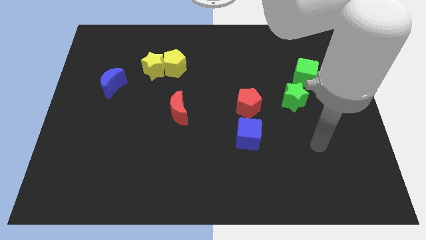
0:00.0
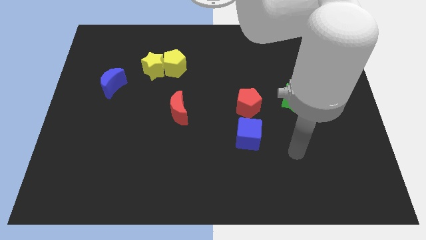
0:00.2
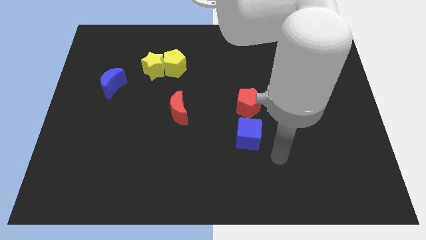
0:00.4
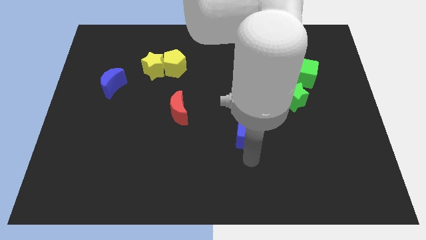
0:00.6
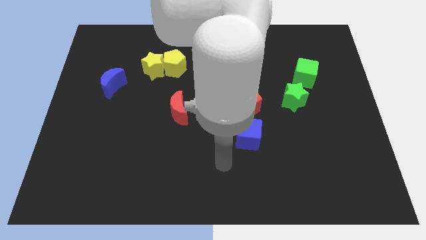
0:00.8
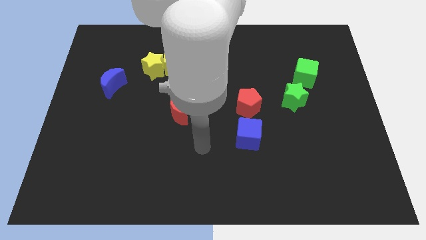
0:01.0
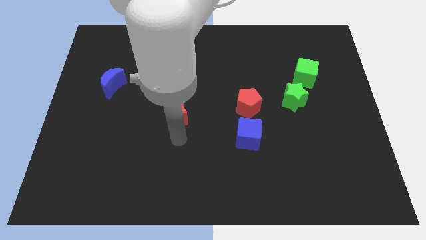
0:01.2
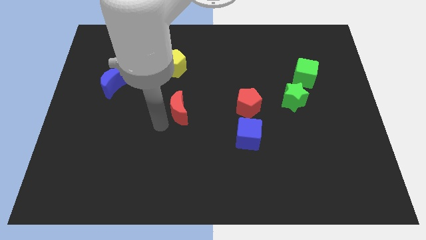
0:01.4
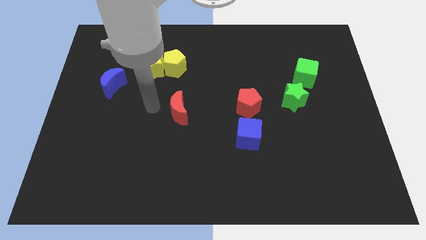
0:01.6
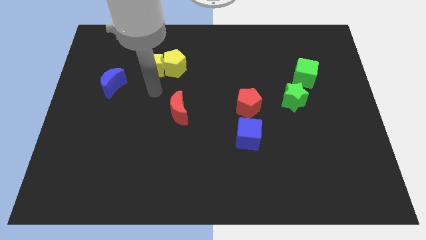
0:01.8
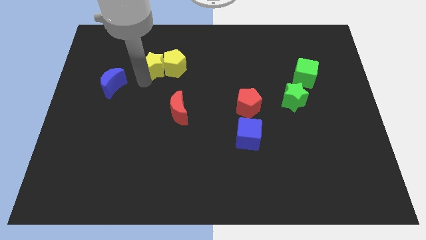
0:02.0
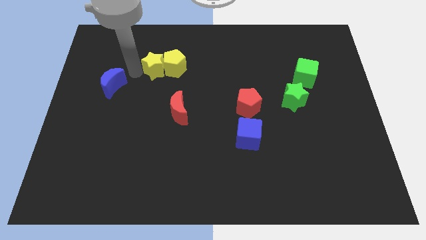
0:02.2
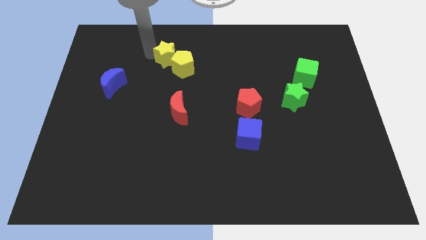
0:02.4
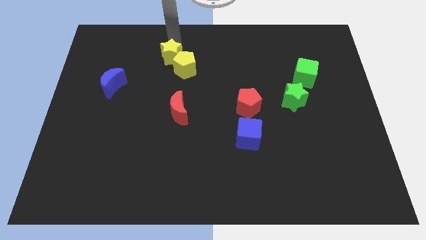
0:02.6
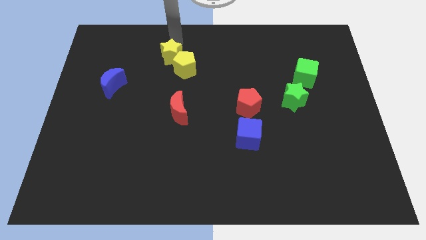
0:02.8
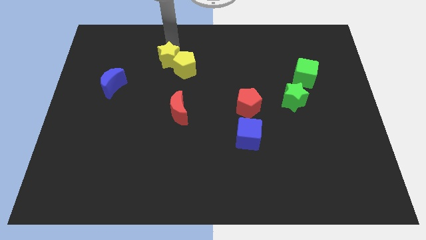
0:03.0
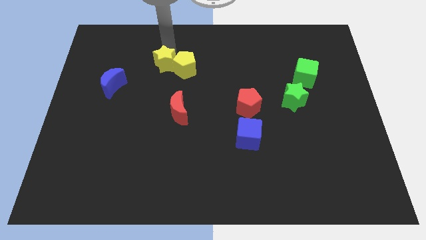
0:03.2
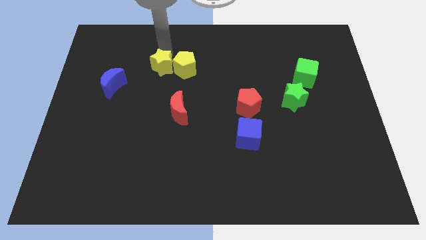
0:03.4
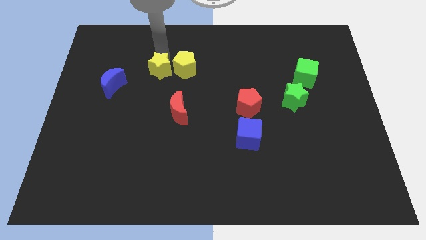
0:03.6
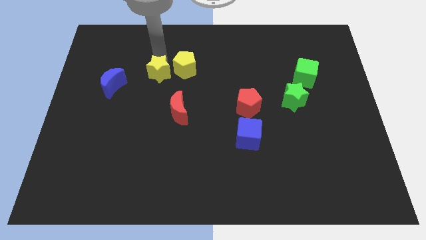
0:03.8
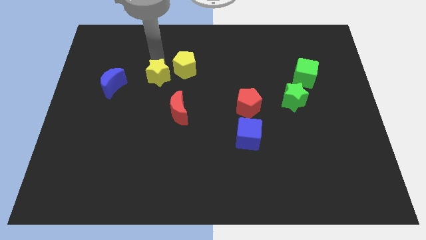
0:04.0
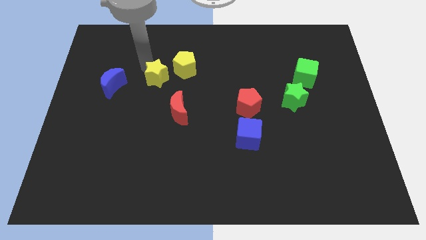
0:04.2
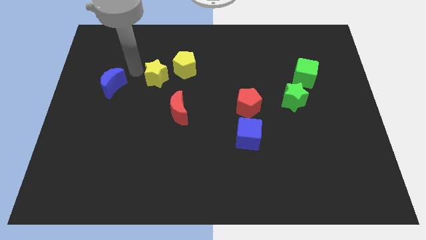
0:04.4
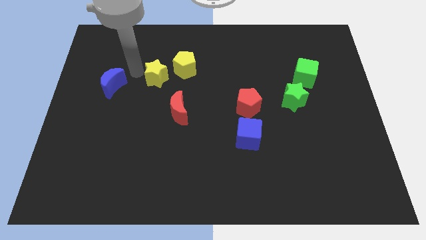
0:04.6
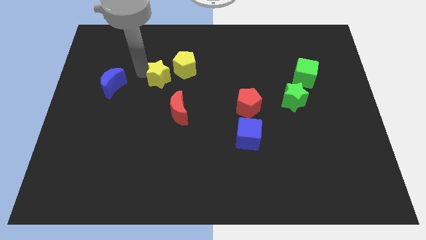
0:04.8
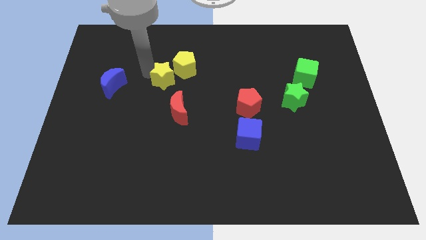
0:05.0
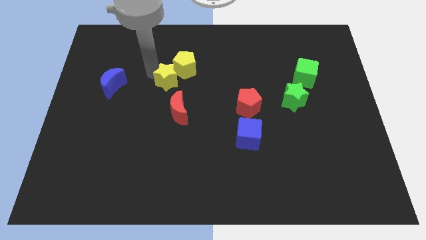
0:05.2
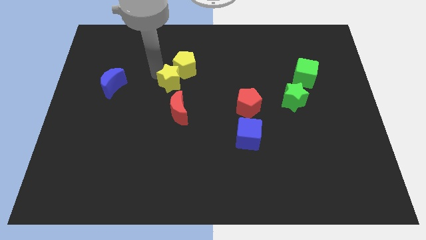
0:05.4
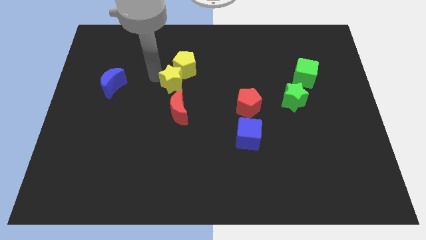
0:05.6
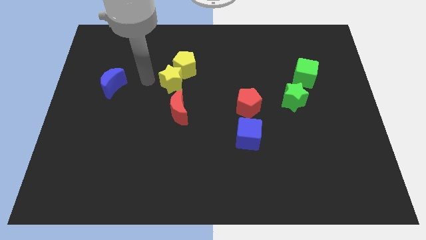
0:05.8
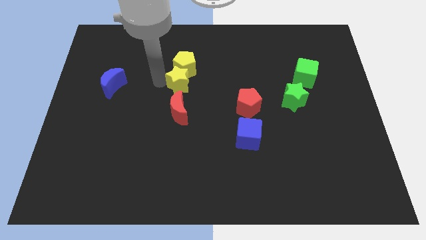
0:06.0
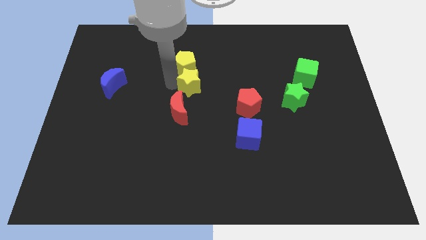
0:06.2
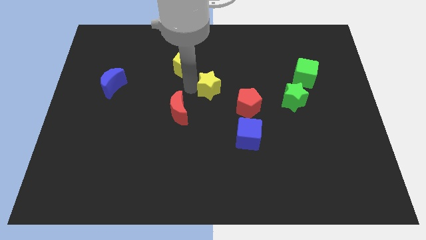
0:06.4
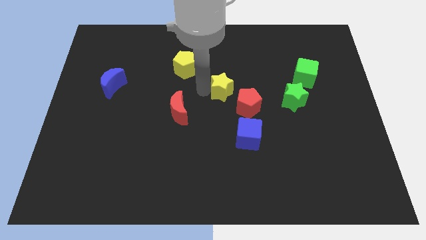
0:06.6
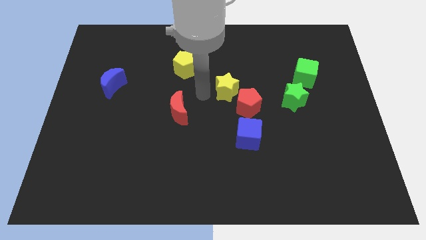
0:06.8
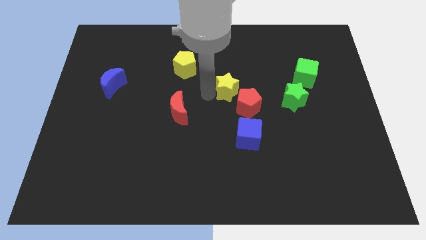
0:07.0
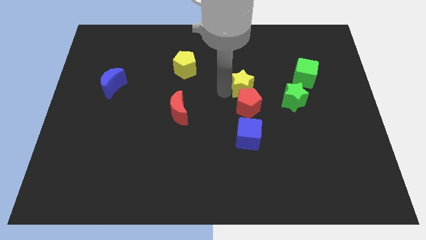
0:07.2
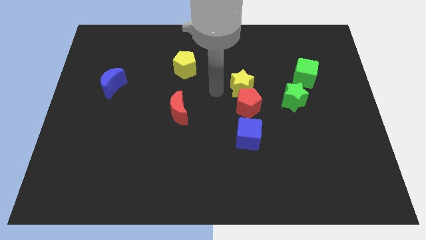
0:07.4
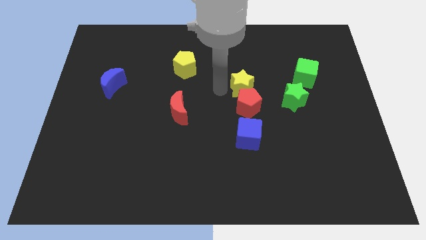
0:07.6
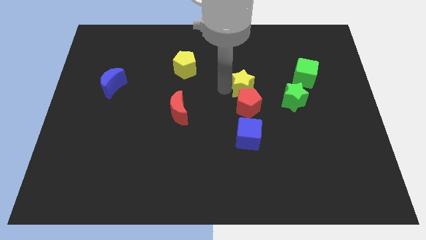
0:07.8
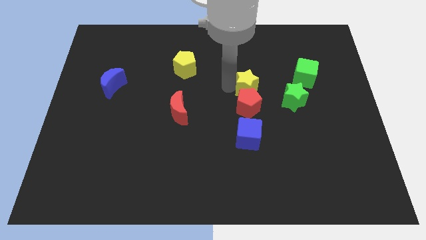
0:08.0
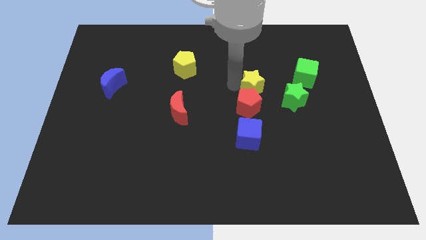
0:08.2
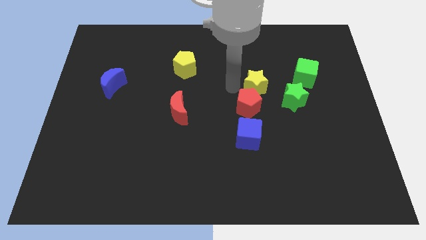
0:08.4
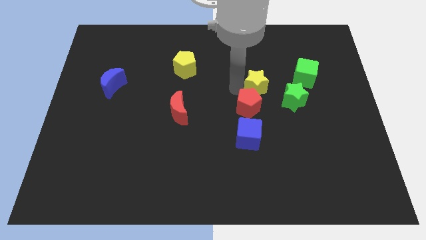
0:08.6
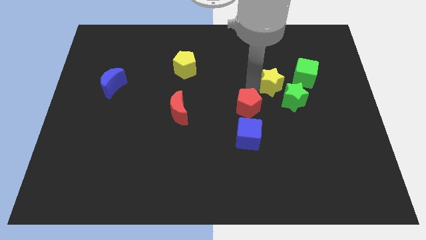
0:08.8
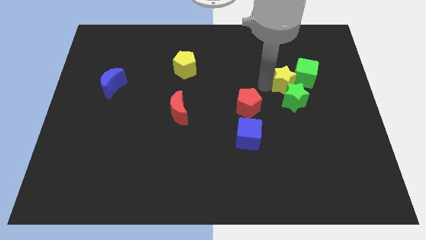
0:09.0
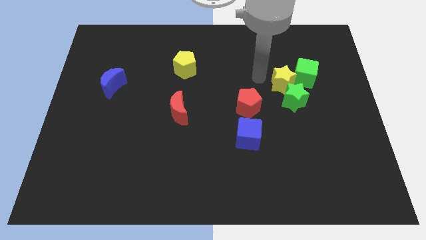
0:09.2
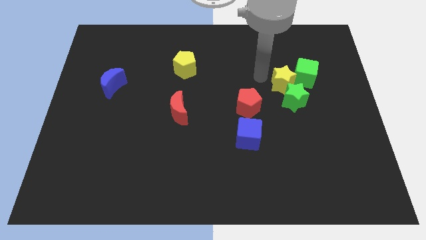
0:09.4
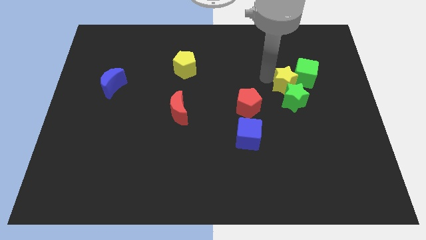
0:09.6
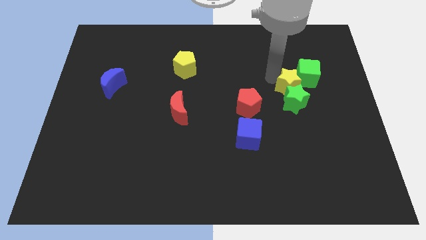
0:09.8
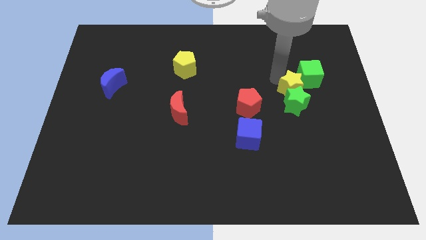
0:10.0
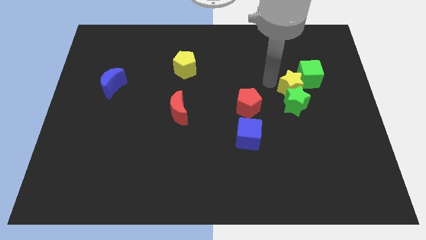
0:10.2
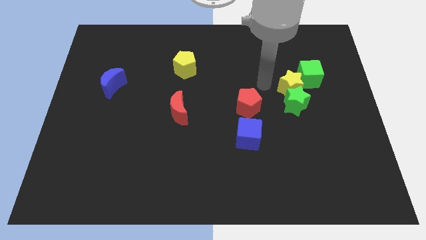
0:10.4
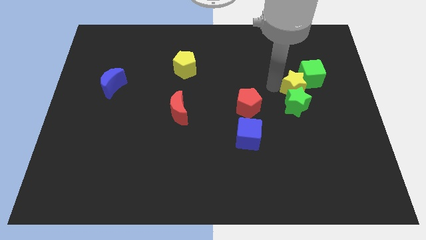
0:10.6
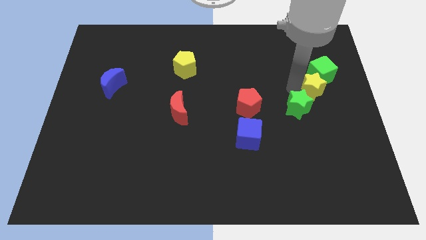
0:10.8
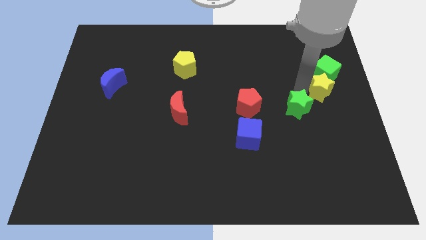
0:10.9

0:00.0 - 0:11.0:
move the yellow star to the right side of the board
